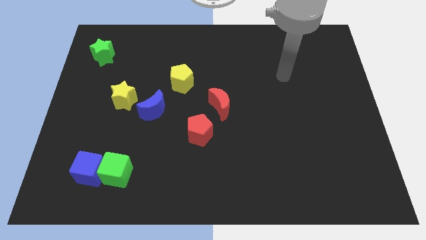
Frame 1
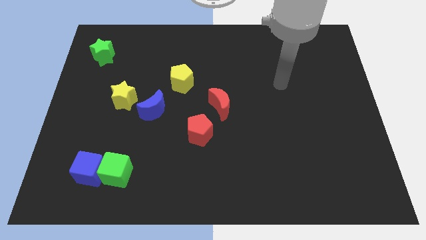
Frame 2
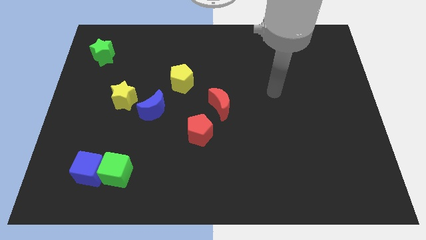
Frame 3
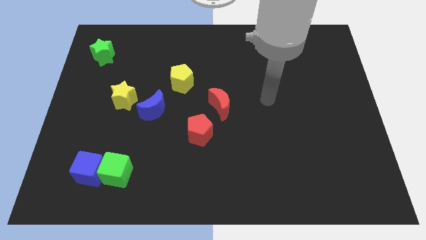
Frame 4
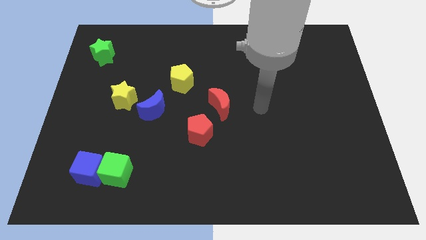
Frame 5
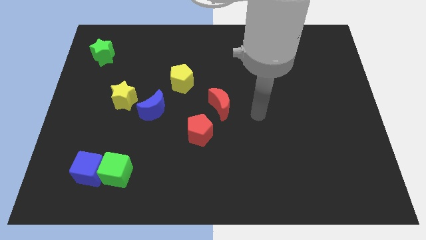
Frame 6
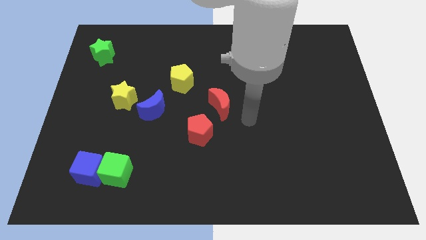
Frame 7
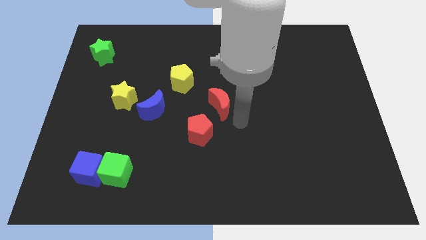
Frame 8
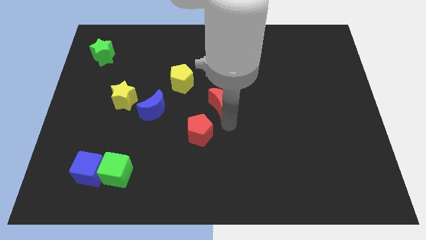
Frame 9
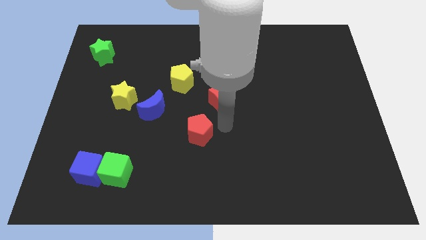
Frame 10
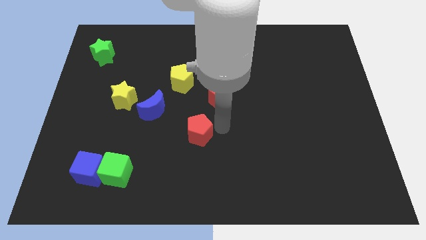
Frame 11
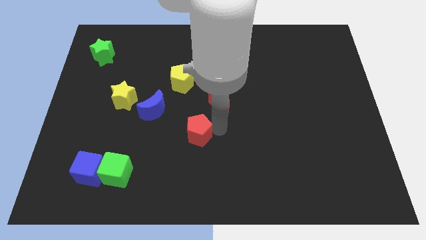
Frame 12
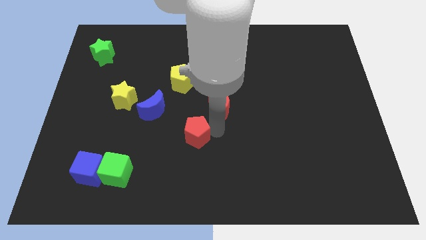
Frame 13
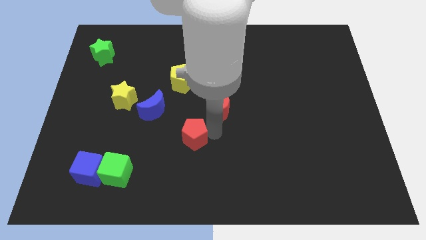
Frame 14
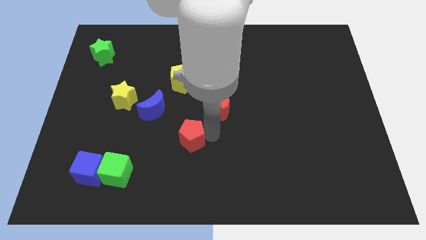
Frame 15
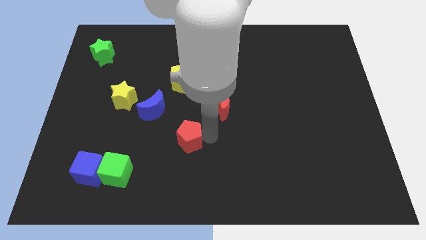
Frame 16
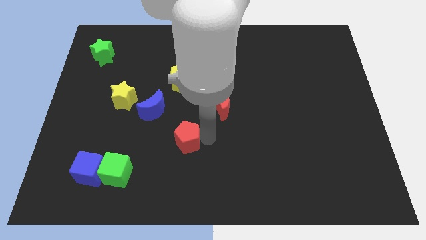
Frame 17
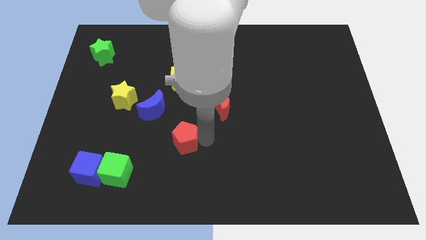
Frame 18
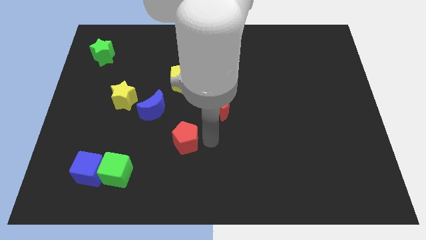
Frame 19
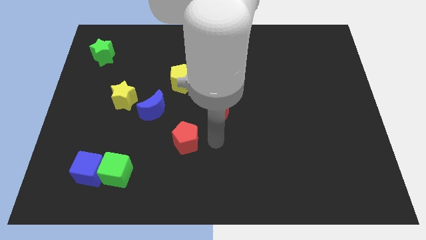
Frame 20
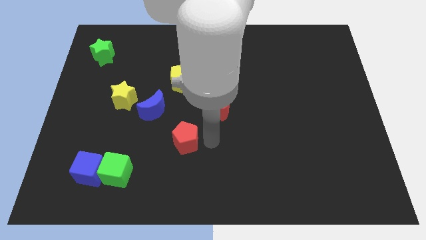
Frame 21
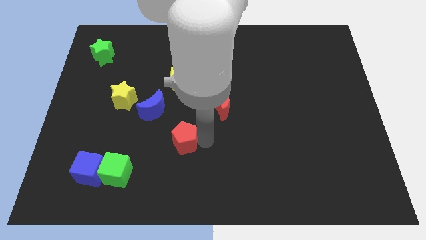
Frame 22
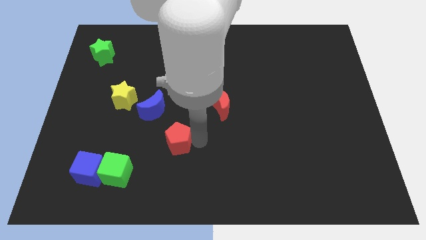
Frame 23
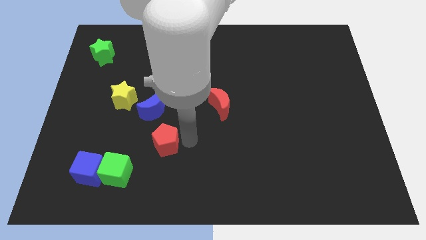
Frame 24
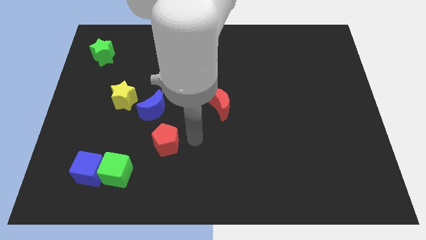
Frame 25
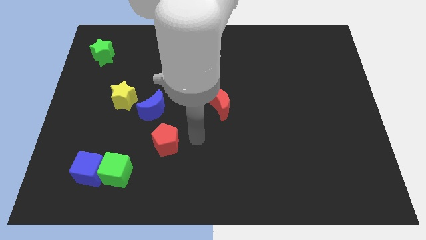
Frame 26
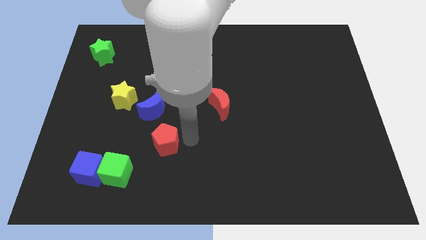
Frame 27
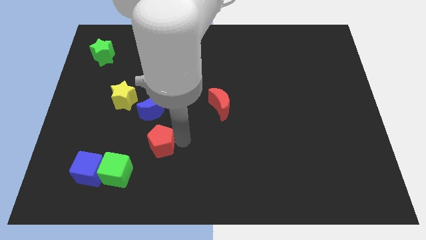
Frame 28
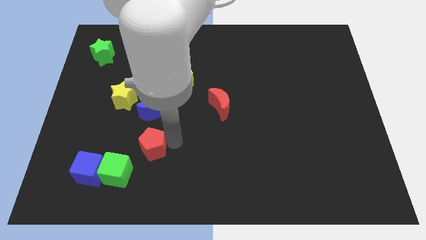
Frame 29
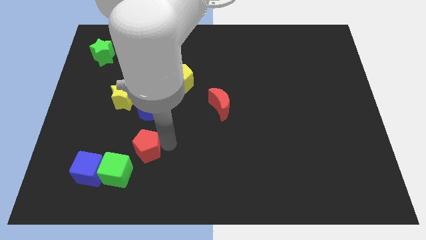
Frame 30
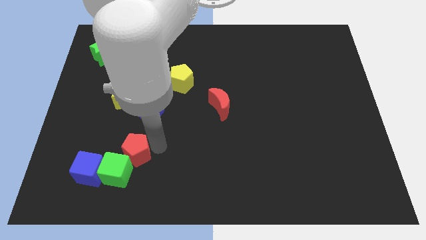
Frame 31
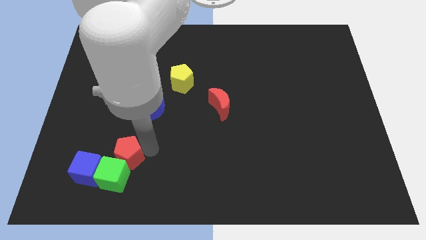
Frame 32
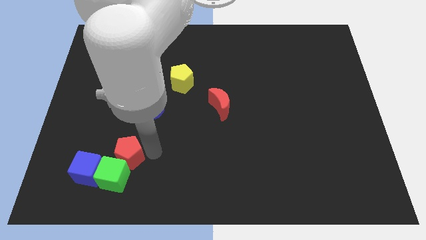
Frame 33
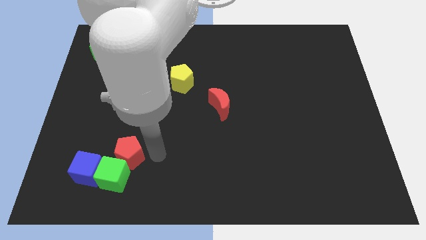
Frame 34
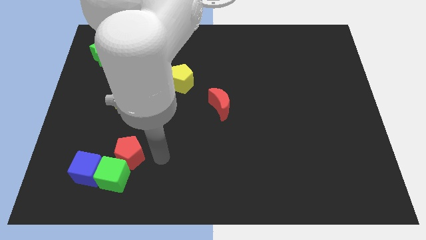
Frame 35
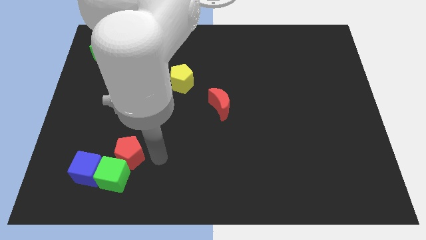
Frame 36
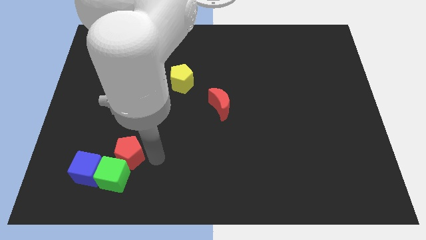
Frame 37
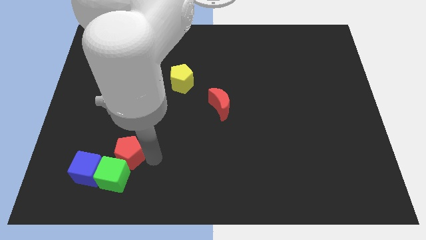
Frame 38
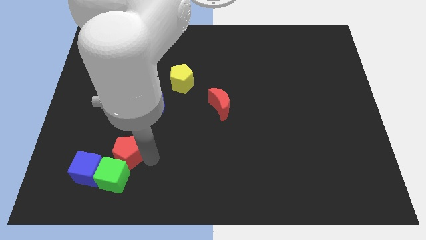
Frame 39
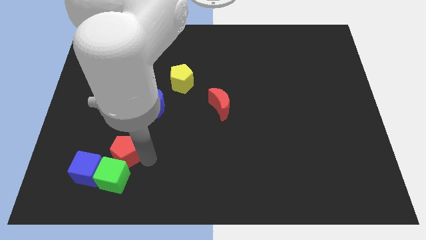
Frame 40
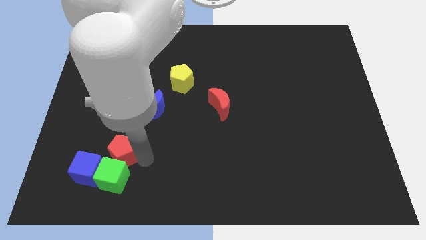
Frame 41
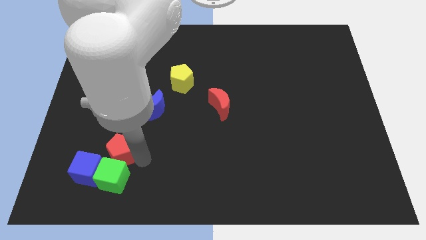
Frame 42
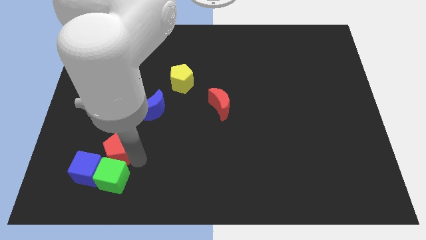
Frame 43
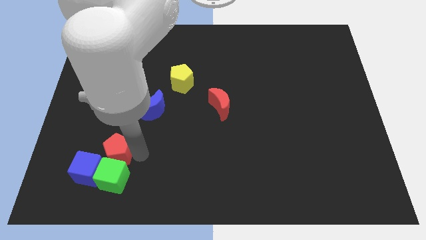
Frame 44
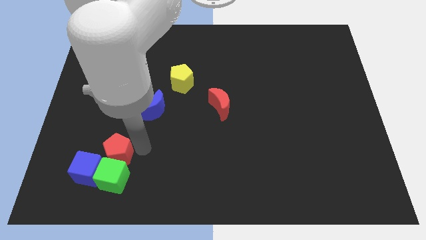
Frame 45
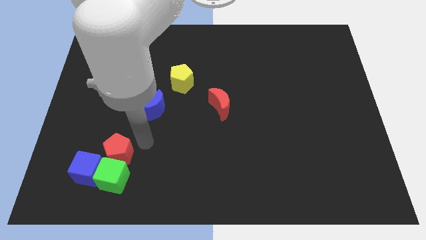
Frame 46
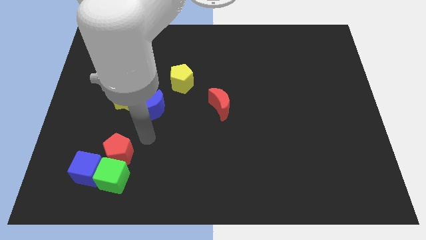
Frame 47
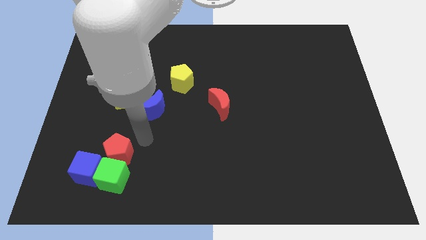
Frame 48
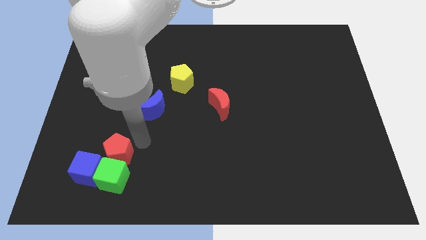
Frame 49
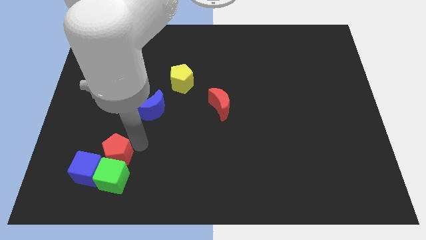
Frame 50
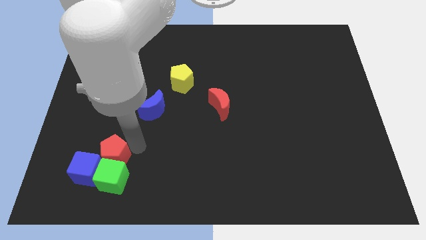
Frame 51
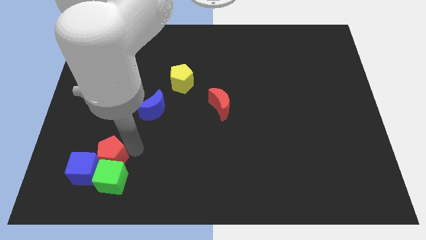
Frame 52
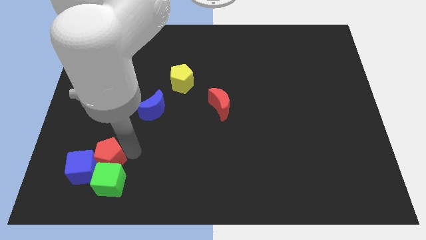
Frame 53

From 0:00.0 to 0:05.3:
move the red pentagon close to the blue cube

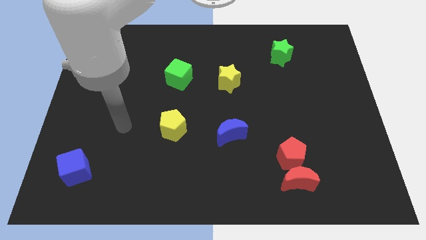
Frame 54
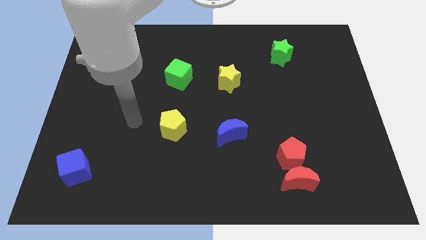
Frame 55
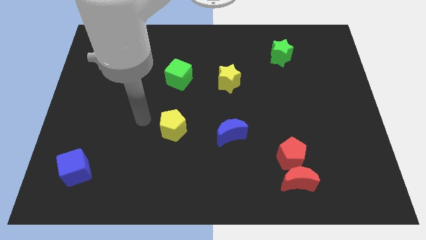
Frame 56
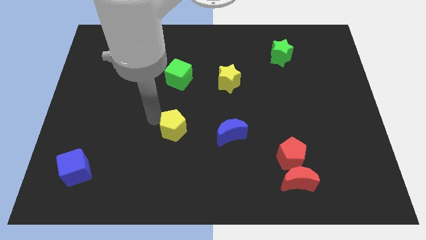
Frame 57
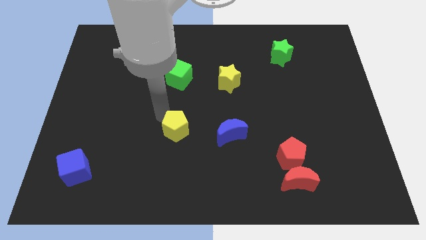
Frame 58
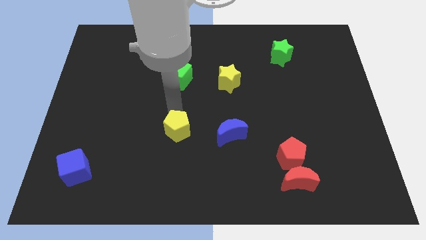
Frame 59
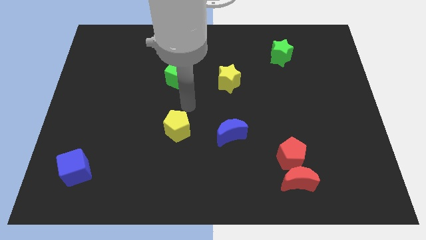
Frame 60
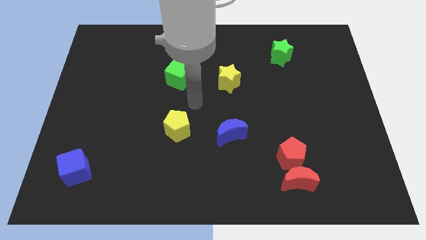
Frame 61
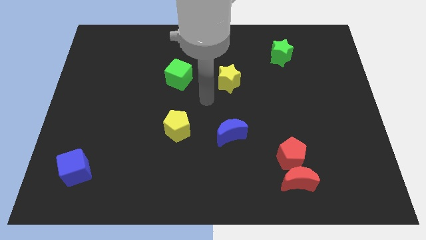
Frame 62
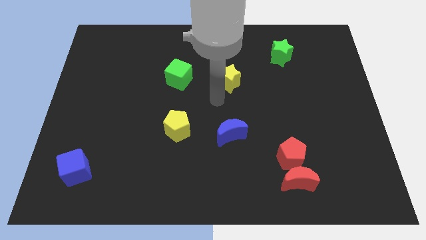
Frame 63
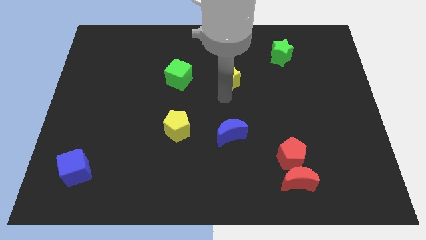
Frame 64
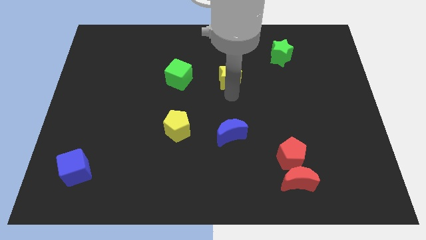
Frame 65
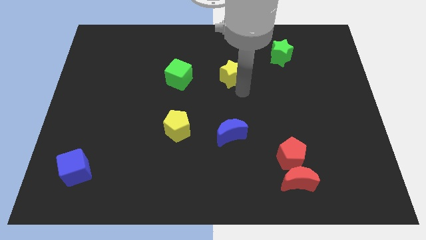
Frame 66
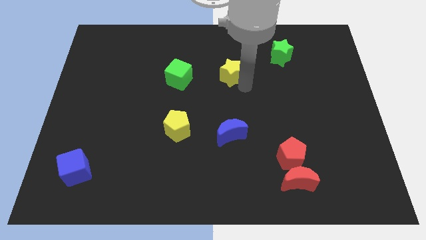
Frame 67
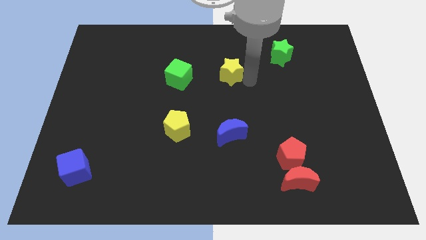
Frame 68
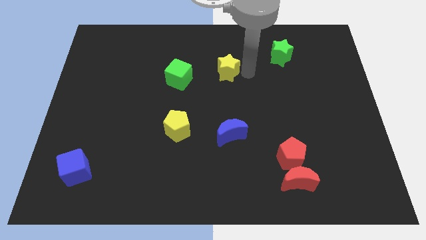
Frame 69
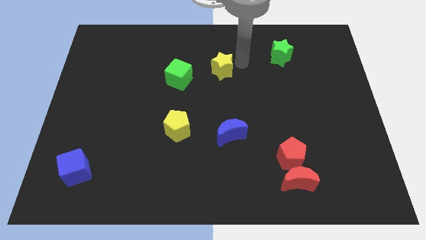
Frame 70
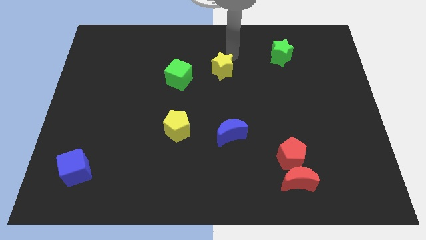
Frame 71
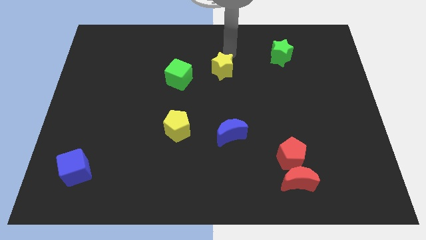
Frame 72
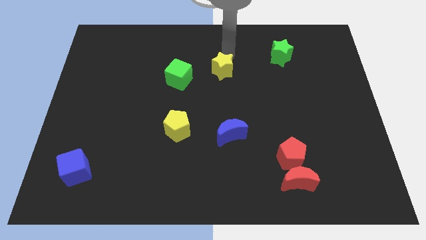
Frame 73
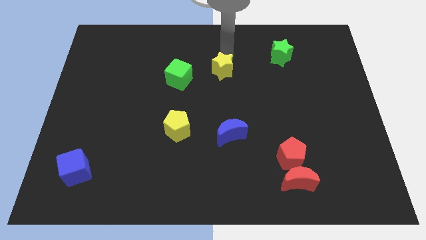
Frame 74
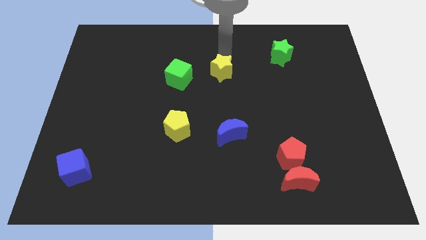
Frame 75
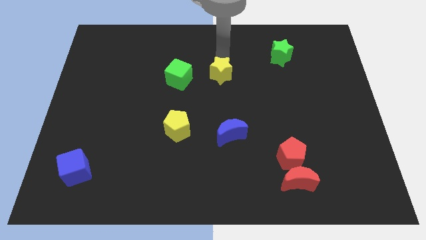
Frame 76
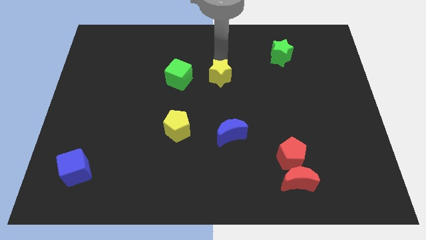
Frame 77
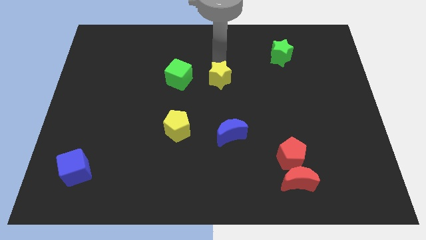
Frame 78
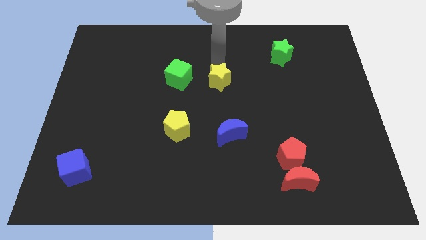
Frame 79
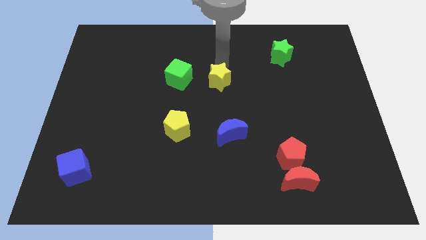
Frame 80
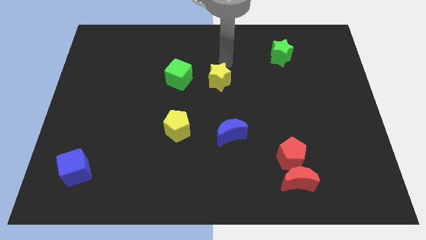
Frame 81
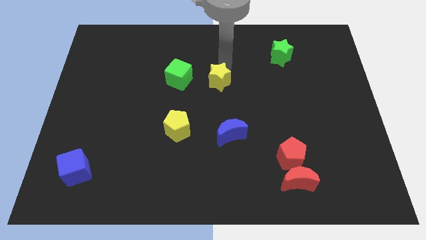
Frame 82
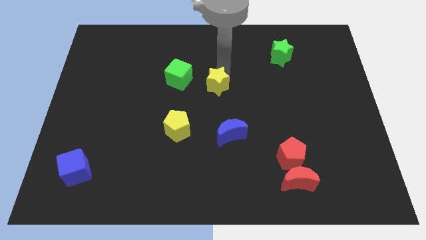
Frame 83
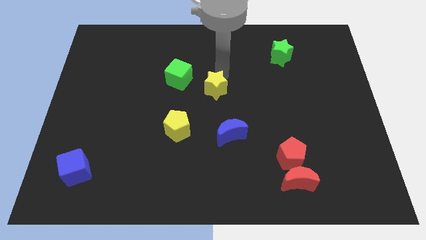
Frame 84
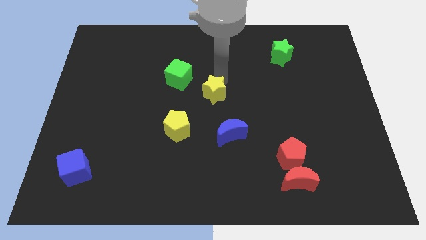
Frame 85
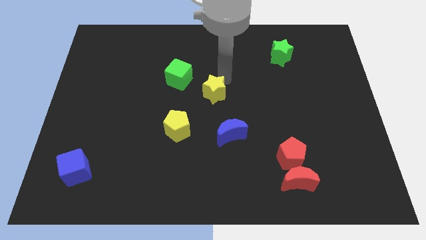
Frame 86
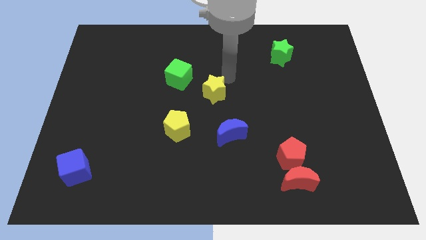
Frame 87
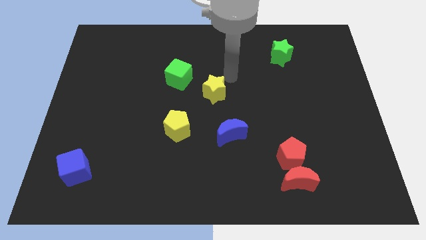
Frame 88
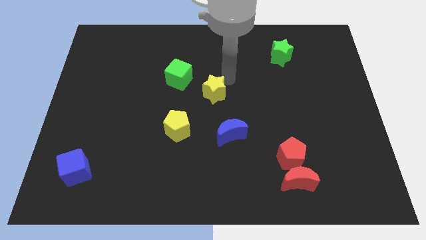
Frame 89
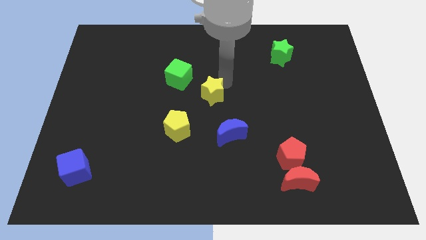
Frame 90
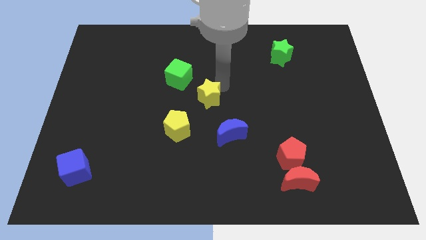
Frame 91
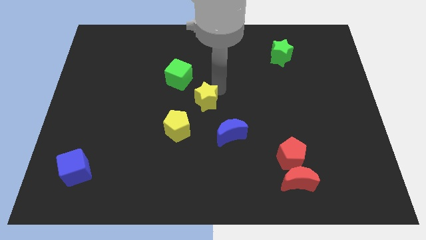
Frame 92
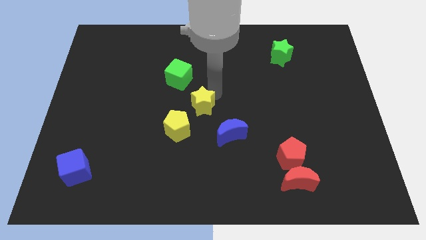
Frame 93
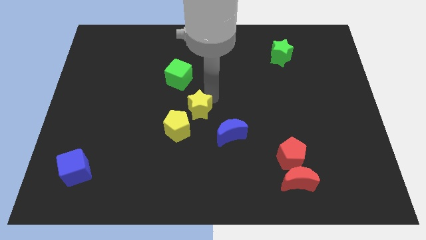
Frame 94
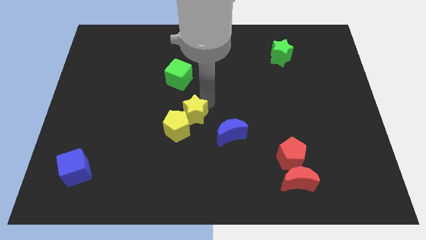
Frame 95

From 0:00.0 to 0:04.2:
push the yellow star next to the yellow pentagon
